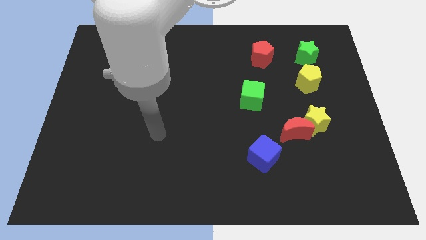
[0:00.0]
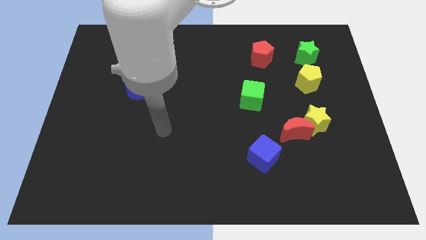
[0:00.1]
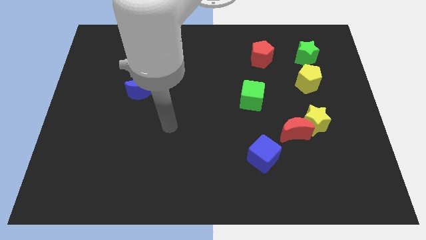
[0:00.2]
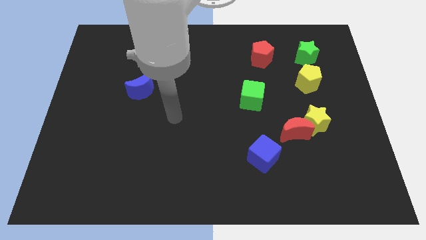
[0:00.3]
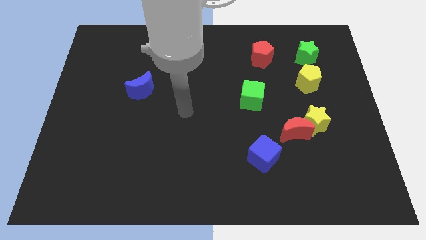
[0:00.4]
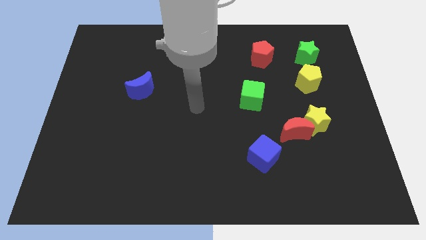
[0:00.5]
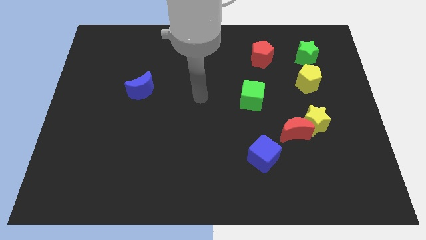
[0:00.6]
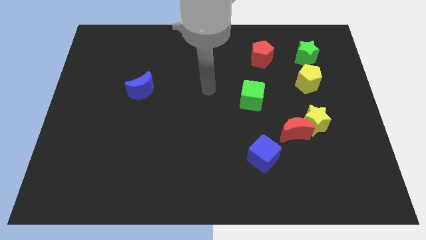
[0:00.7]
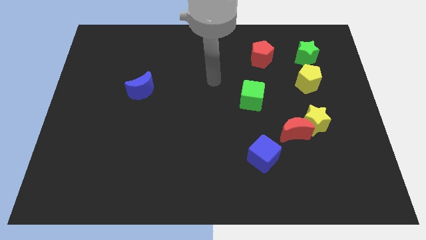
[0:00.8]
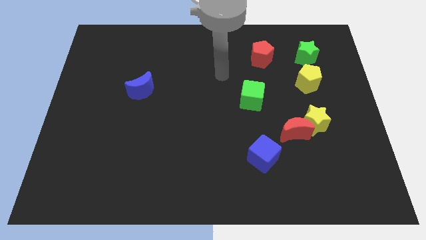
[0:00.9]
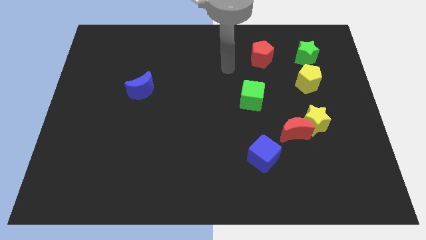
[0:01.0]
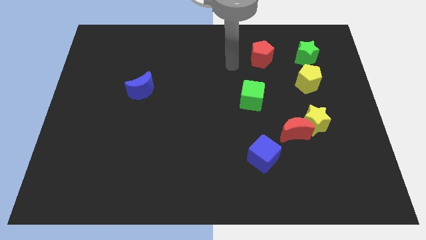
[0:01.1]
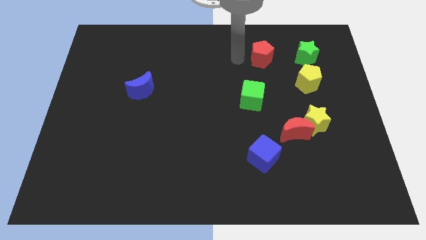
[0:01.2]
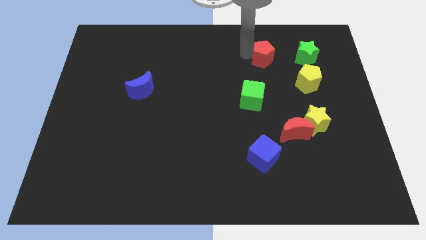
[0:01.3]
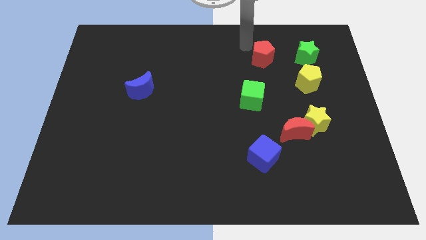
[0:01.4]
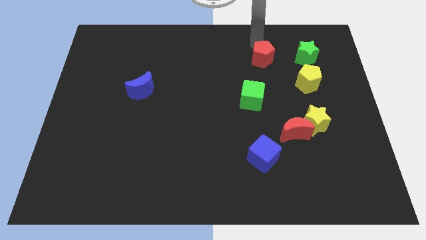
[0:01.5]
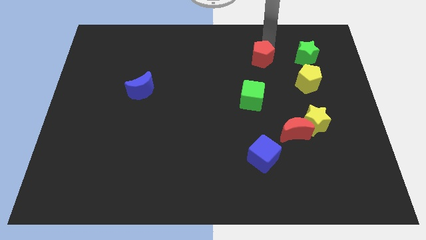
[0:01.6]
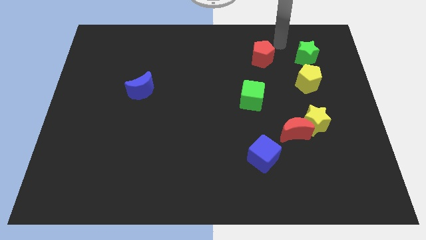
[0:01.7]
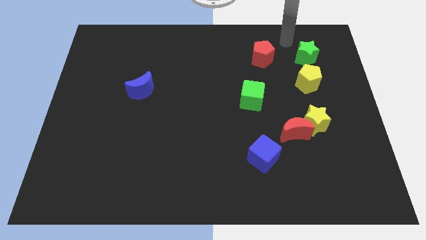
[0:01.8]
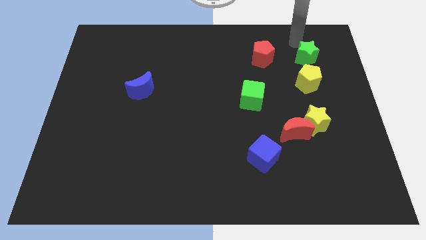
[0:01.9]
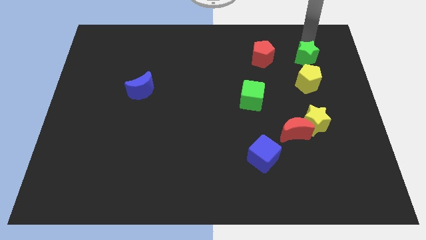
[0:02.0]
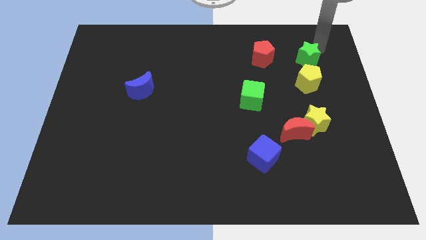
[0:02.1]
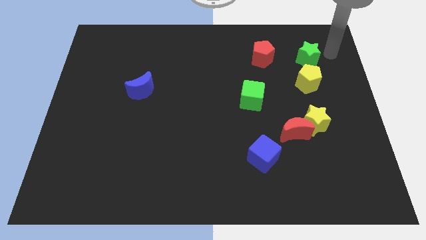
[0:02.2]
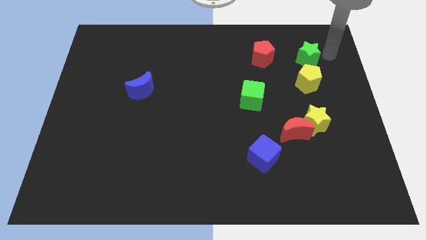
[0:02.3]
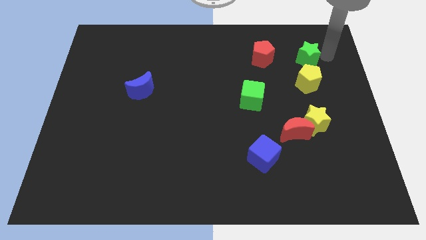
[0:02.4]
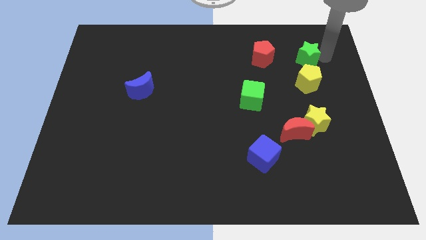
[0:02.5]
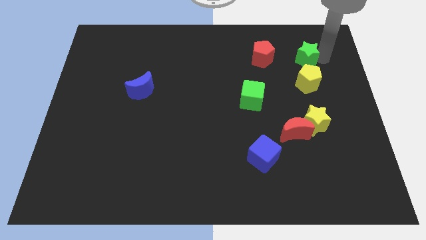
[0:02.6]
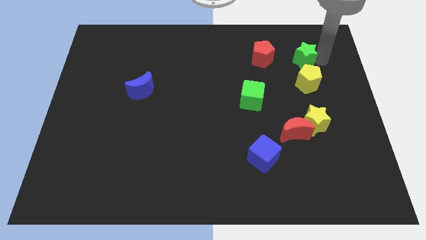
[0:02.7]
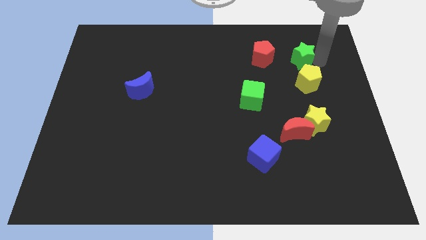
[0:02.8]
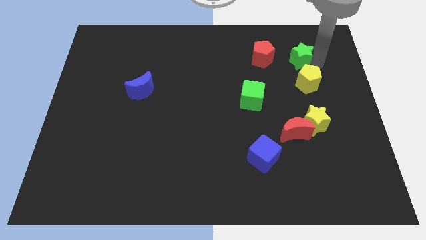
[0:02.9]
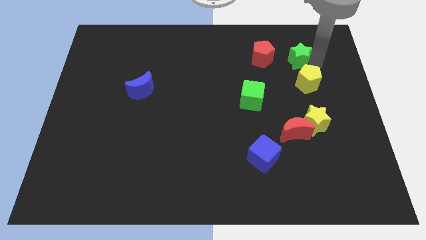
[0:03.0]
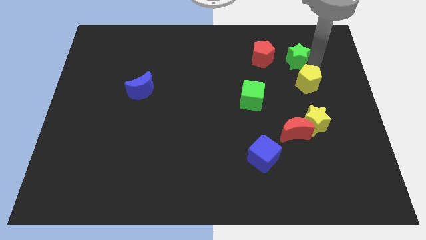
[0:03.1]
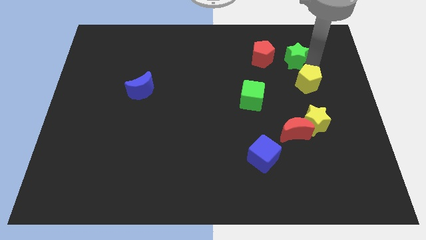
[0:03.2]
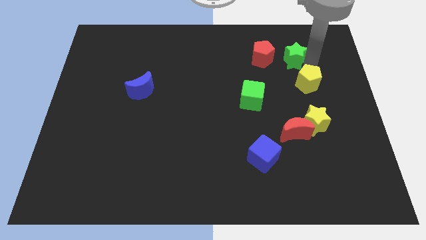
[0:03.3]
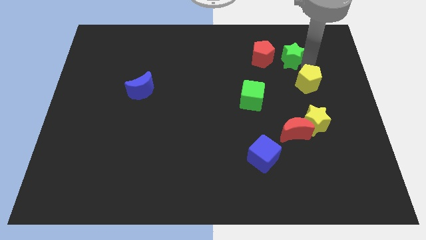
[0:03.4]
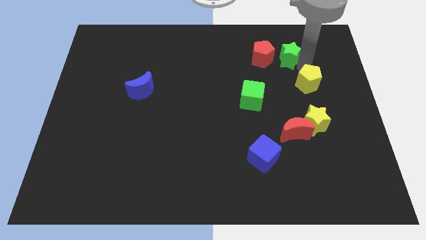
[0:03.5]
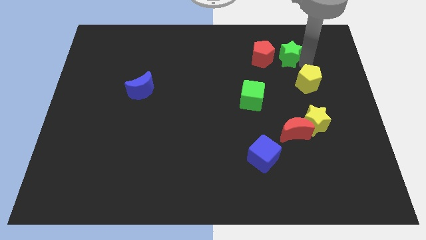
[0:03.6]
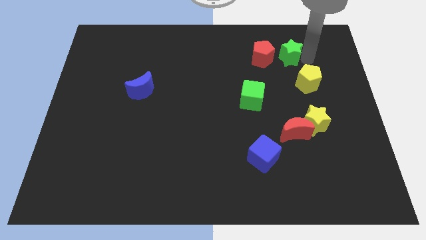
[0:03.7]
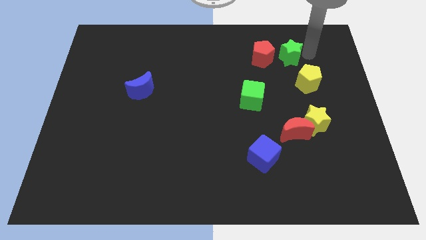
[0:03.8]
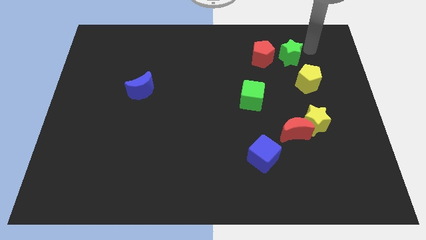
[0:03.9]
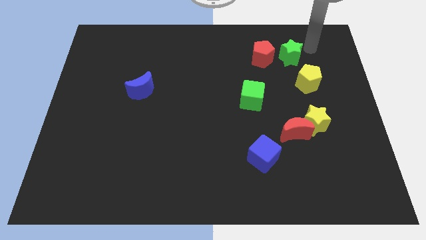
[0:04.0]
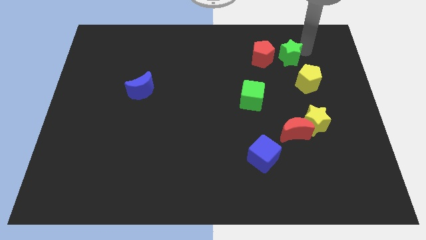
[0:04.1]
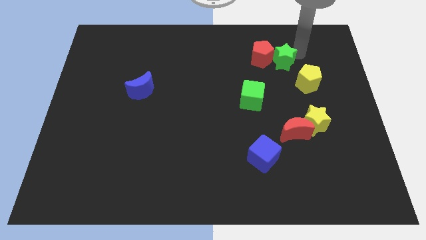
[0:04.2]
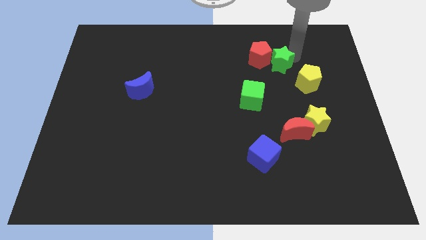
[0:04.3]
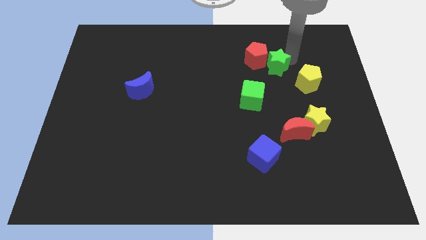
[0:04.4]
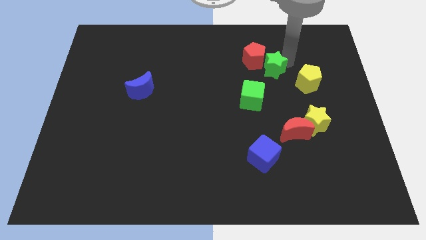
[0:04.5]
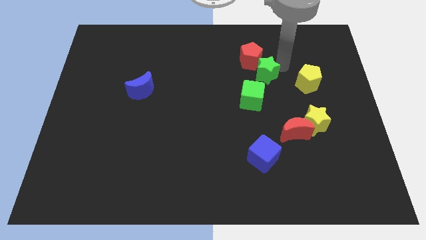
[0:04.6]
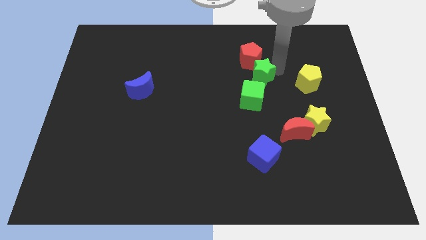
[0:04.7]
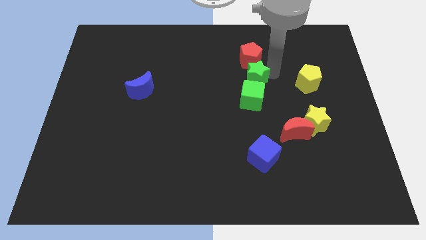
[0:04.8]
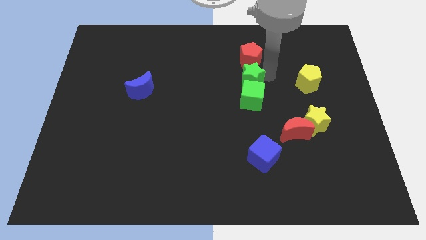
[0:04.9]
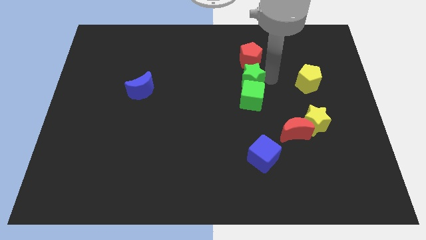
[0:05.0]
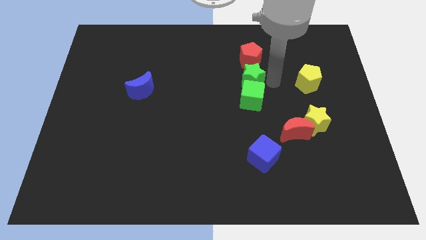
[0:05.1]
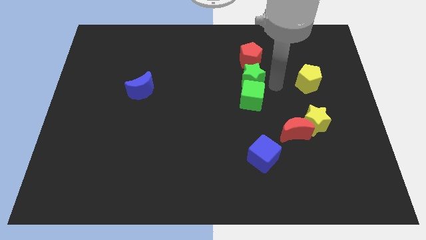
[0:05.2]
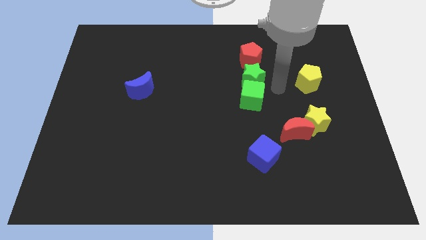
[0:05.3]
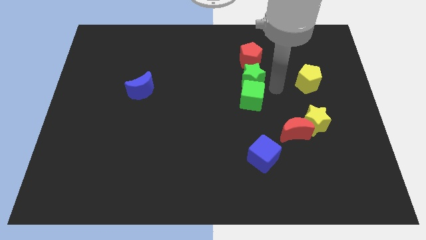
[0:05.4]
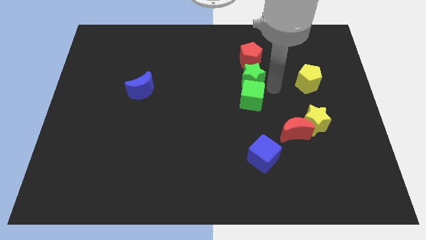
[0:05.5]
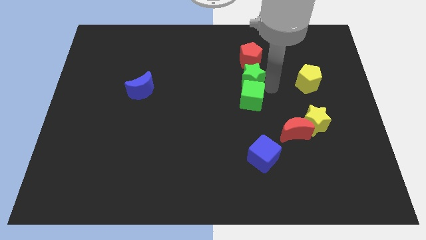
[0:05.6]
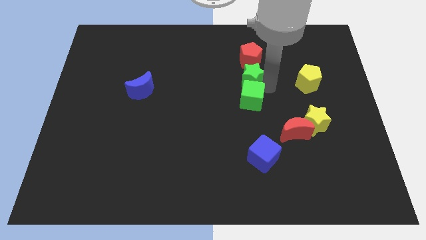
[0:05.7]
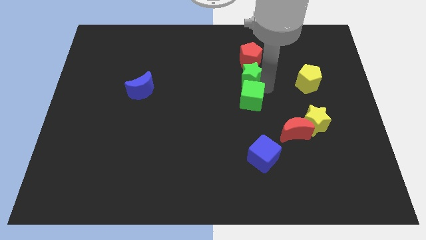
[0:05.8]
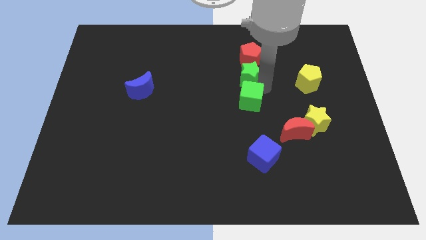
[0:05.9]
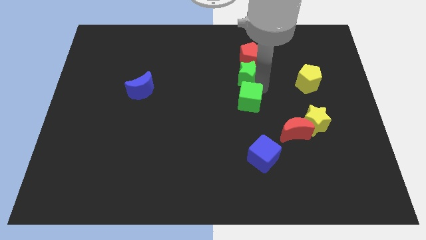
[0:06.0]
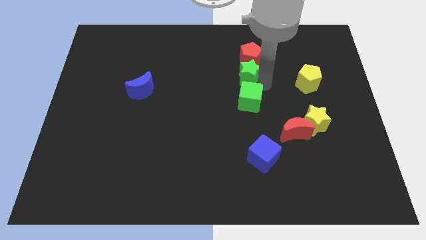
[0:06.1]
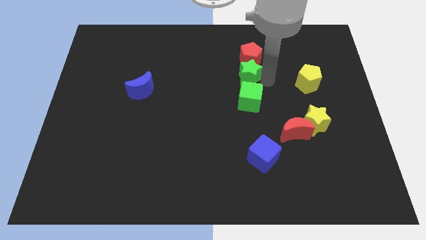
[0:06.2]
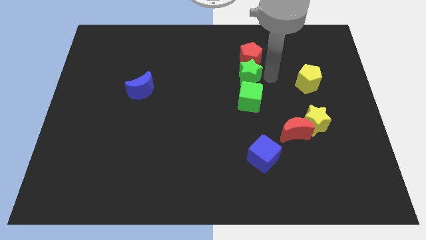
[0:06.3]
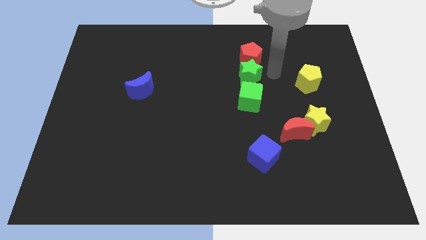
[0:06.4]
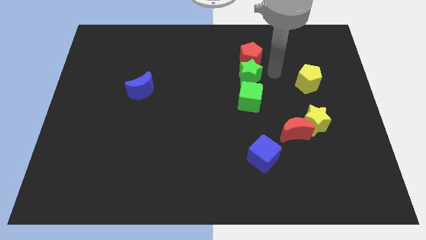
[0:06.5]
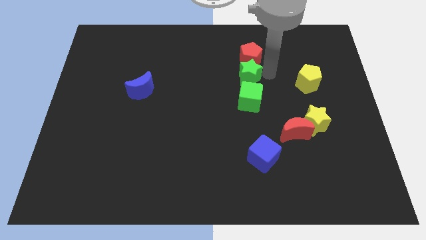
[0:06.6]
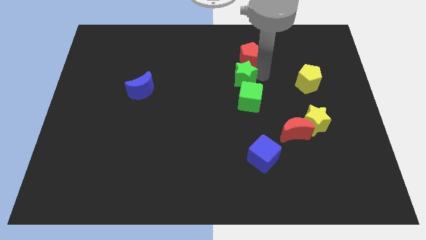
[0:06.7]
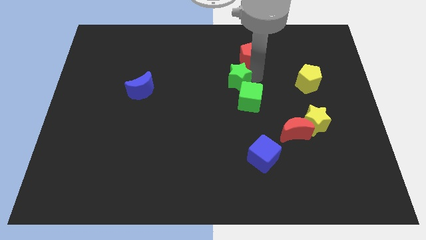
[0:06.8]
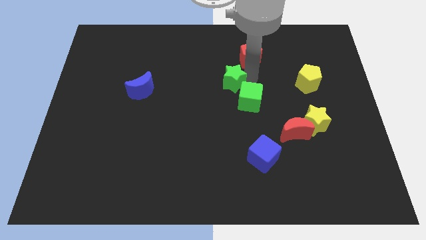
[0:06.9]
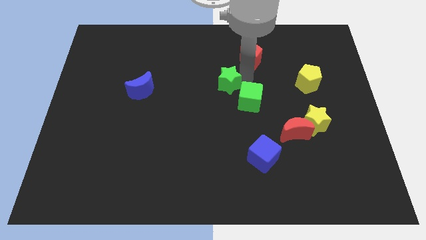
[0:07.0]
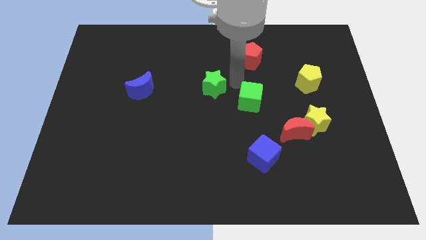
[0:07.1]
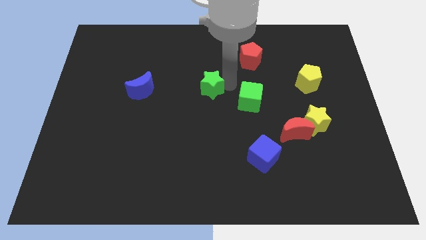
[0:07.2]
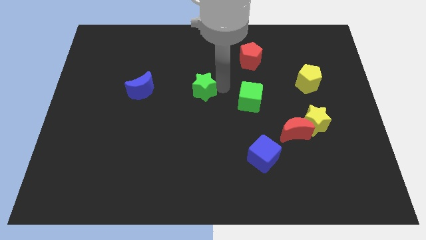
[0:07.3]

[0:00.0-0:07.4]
move the green star to the right side of the blue moon
